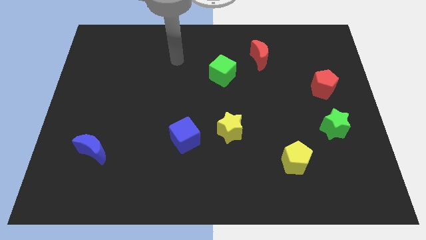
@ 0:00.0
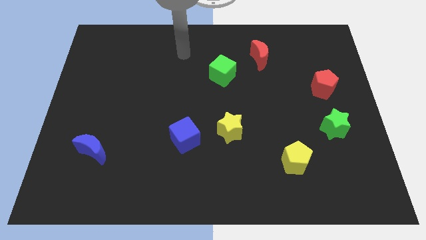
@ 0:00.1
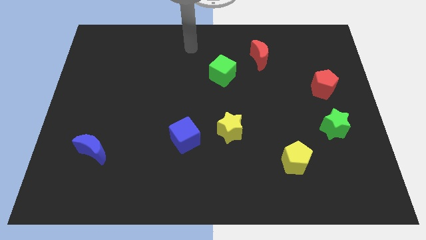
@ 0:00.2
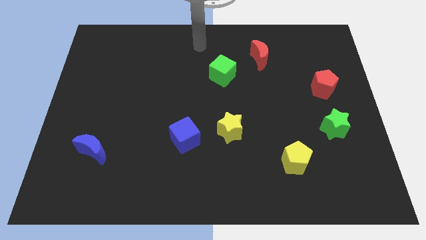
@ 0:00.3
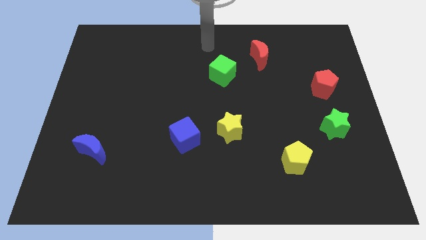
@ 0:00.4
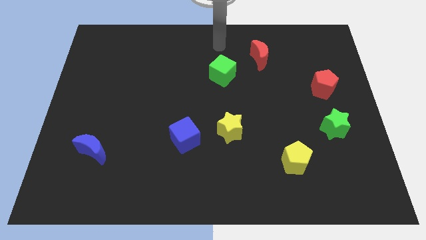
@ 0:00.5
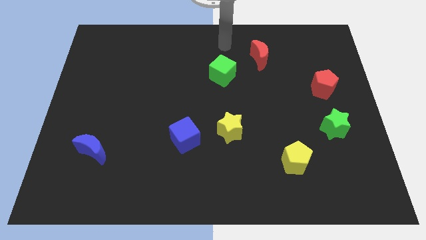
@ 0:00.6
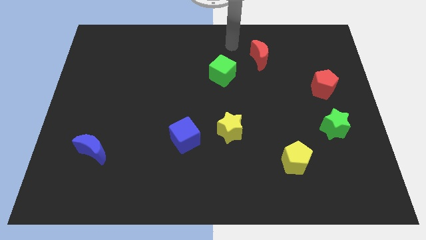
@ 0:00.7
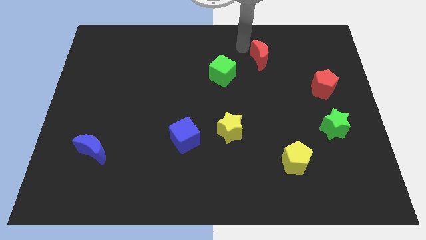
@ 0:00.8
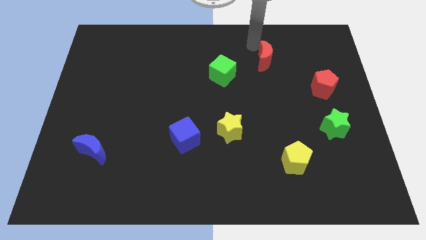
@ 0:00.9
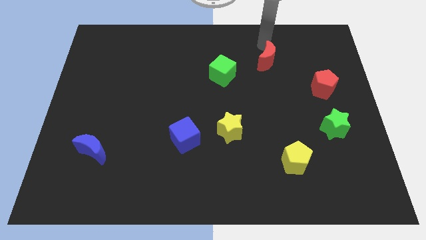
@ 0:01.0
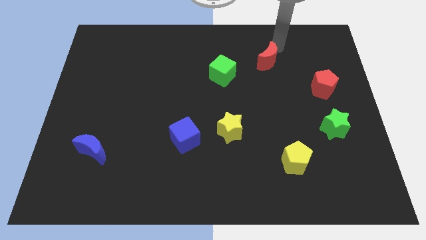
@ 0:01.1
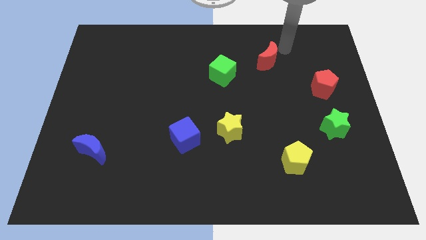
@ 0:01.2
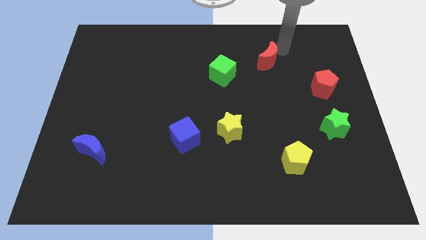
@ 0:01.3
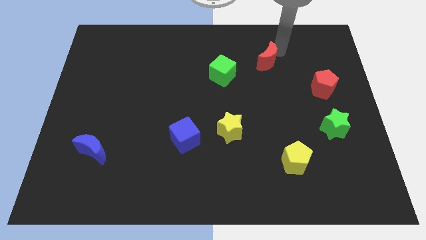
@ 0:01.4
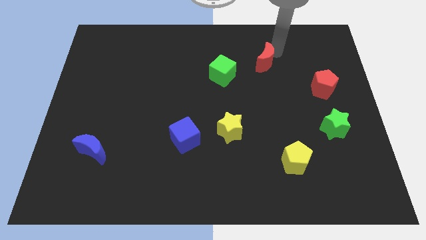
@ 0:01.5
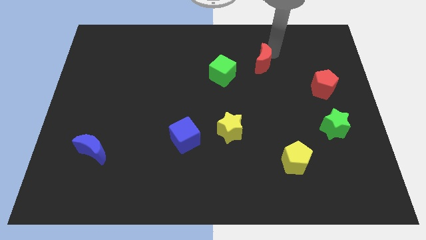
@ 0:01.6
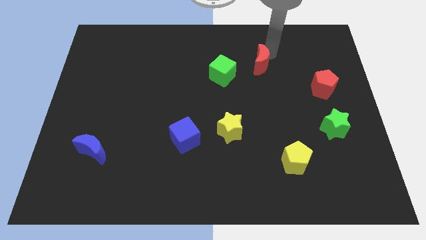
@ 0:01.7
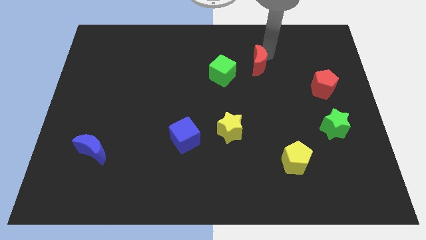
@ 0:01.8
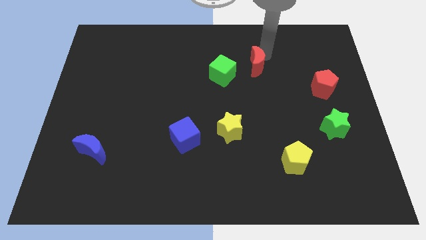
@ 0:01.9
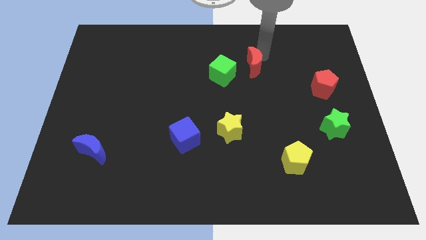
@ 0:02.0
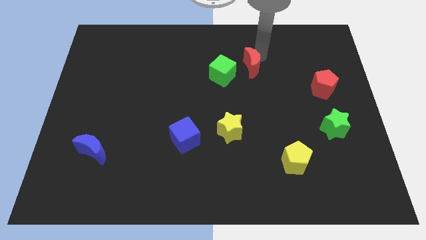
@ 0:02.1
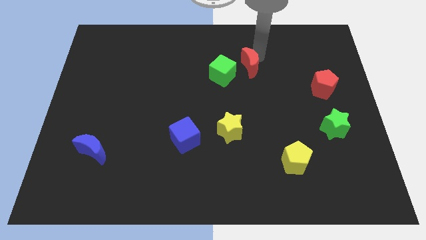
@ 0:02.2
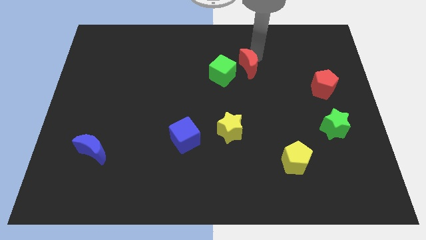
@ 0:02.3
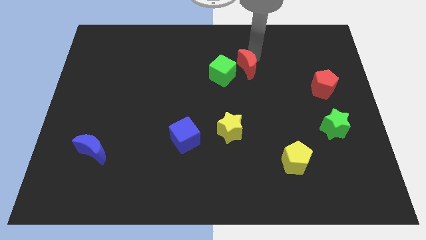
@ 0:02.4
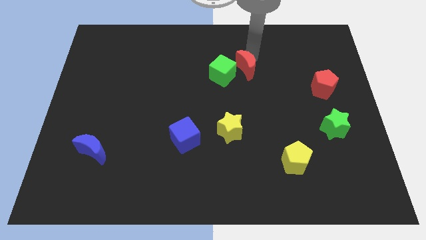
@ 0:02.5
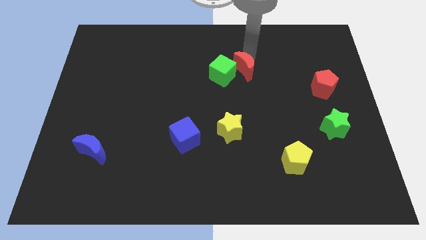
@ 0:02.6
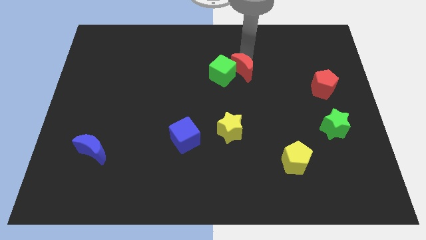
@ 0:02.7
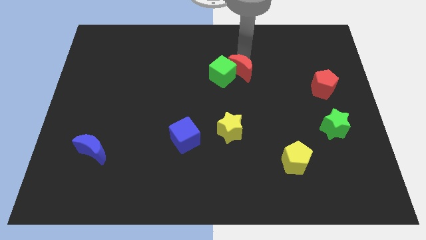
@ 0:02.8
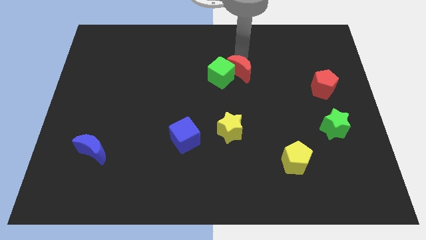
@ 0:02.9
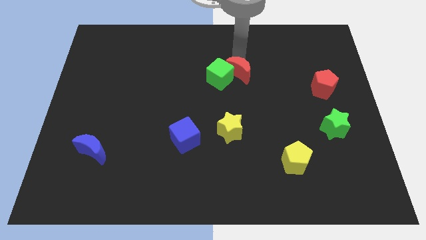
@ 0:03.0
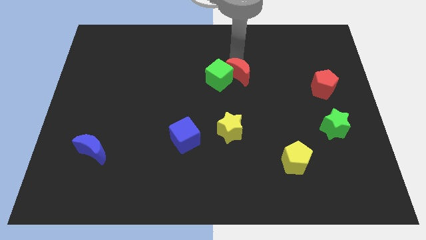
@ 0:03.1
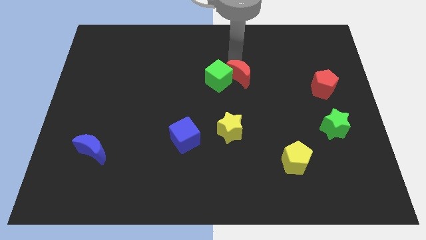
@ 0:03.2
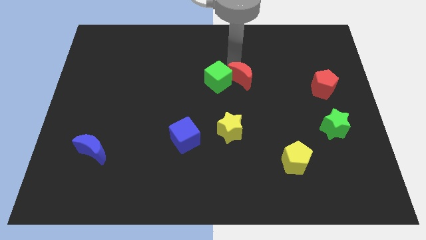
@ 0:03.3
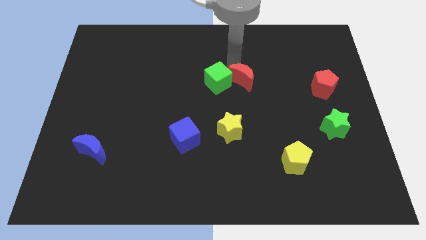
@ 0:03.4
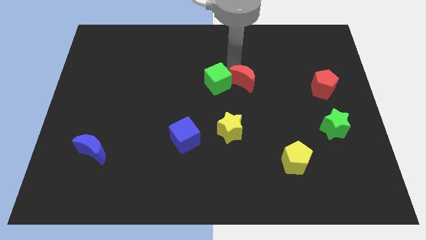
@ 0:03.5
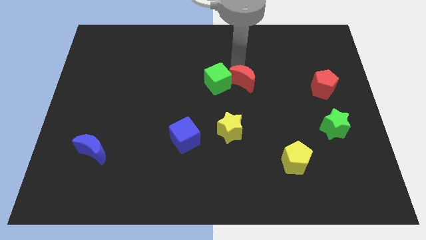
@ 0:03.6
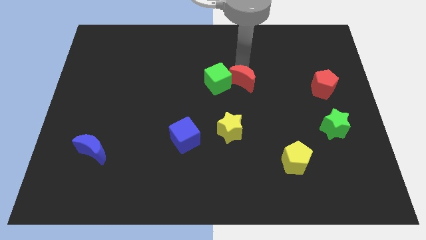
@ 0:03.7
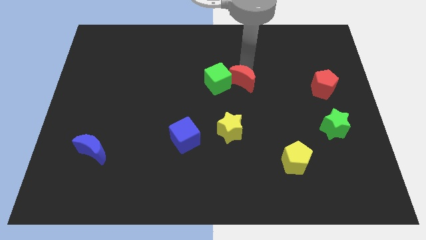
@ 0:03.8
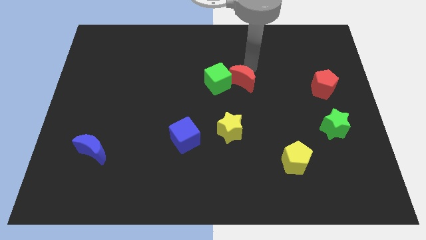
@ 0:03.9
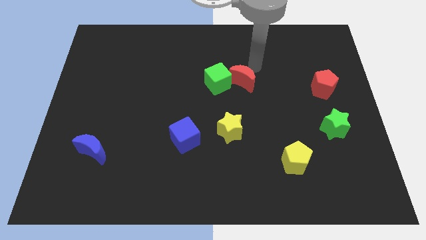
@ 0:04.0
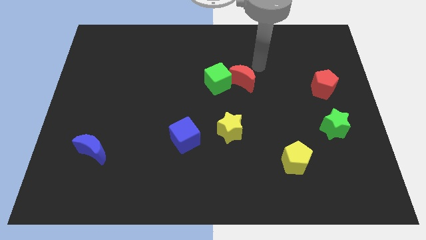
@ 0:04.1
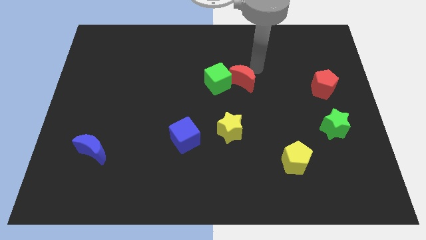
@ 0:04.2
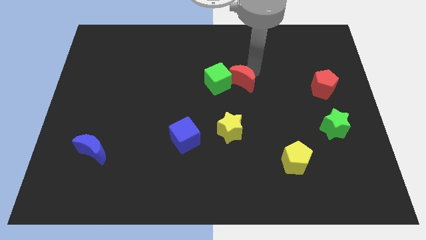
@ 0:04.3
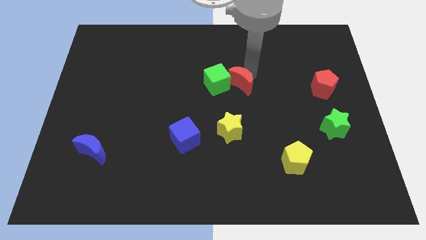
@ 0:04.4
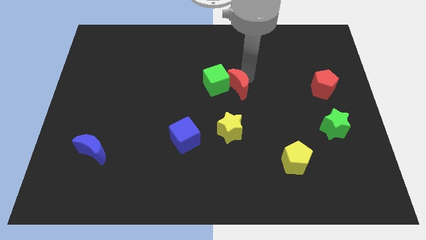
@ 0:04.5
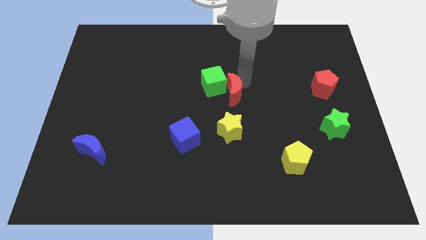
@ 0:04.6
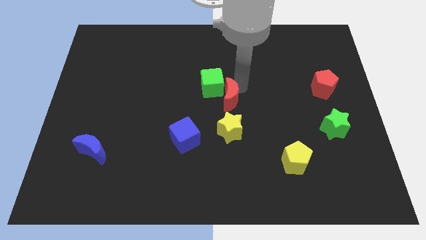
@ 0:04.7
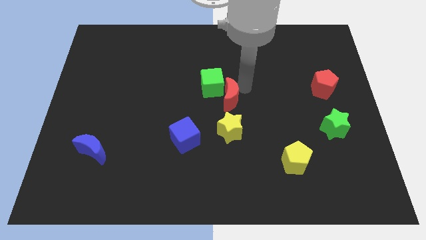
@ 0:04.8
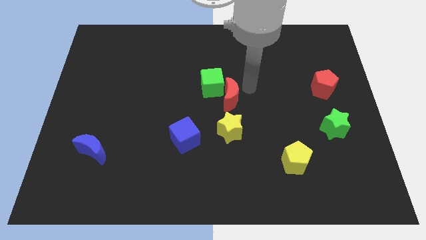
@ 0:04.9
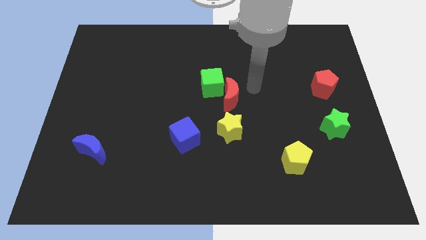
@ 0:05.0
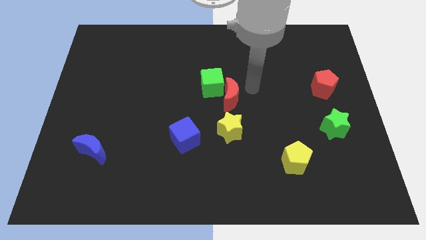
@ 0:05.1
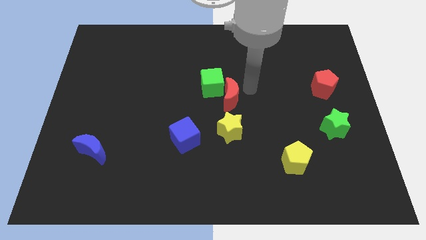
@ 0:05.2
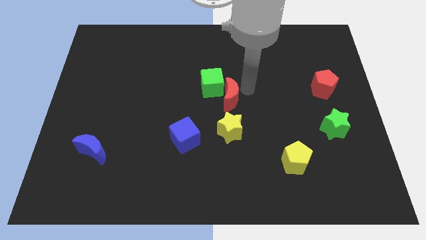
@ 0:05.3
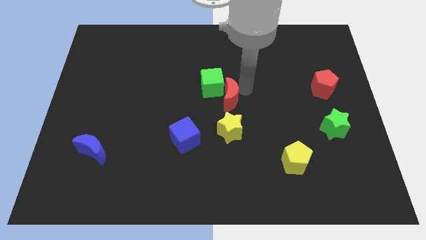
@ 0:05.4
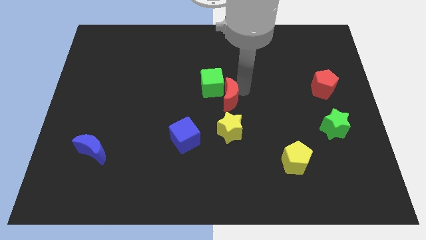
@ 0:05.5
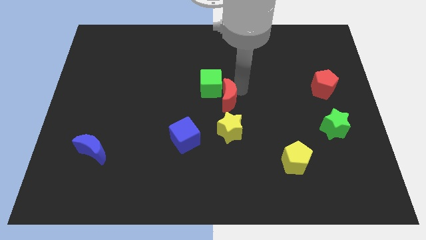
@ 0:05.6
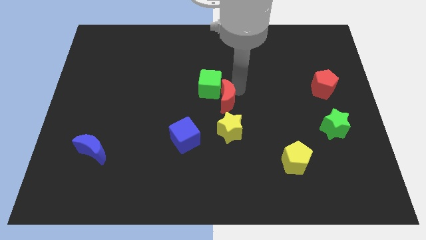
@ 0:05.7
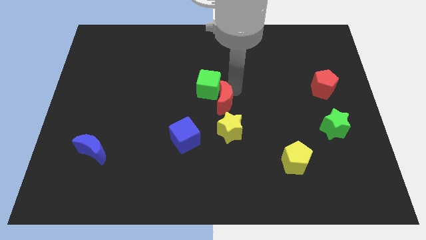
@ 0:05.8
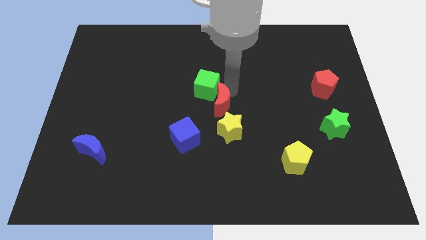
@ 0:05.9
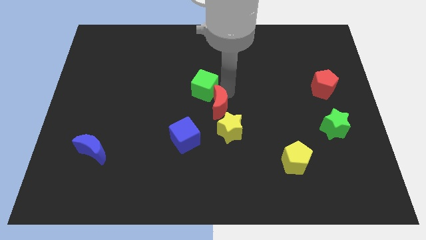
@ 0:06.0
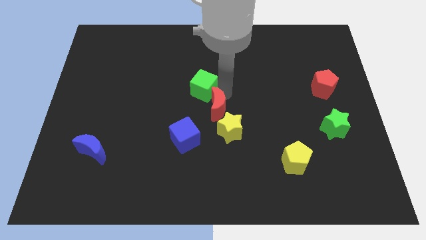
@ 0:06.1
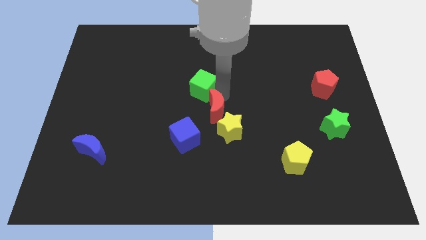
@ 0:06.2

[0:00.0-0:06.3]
slide the red moon down and to the left

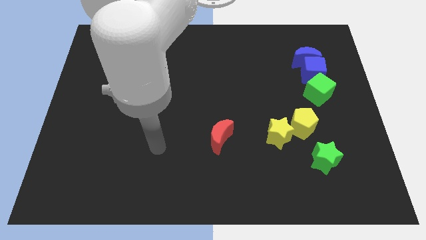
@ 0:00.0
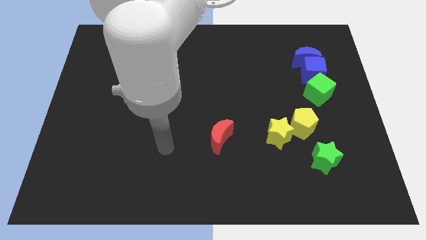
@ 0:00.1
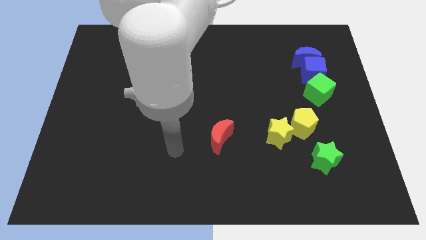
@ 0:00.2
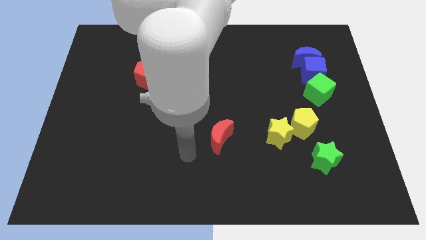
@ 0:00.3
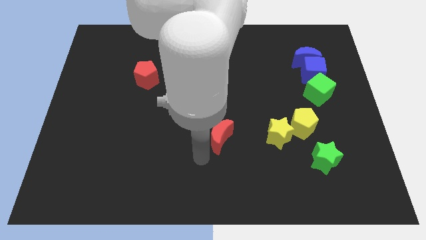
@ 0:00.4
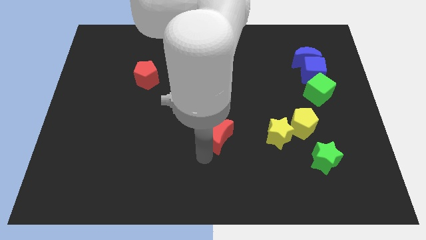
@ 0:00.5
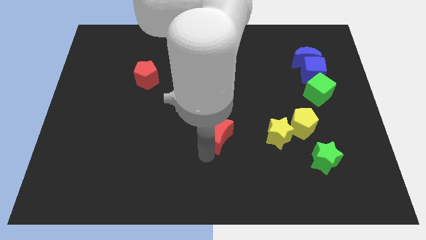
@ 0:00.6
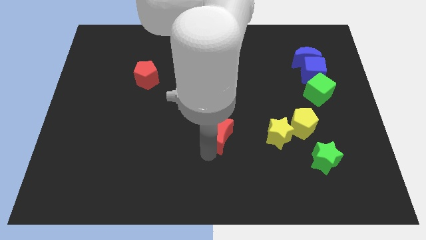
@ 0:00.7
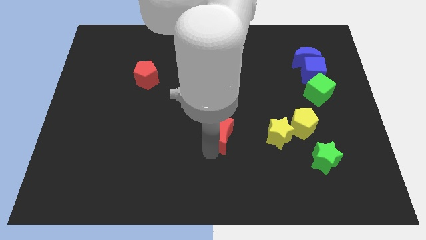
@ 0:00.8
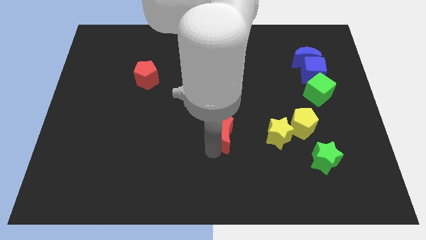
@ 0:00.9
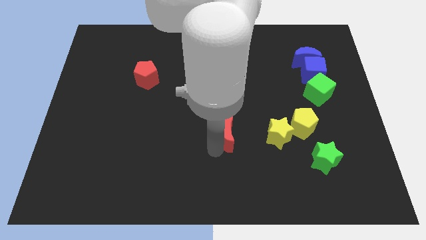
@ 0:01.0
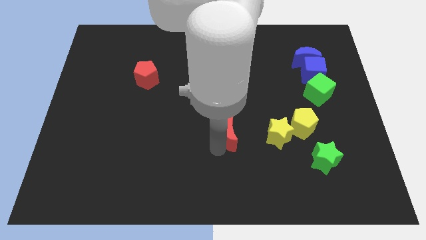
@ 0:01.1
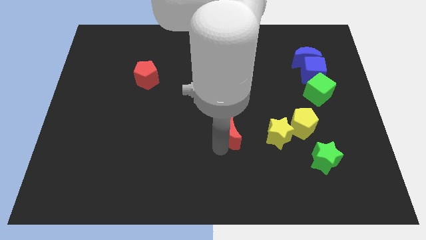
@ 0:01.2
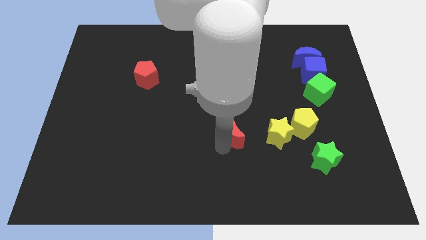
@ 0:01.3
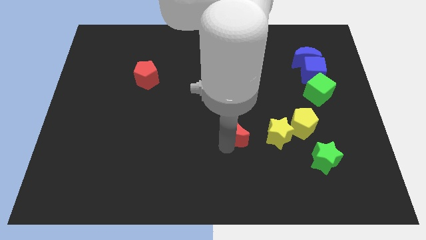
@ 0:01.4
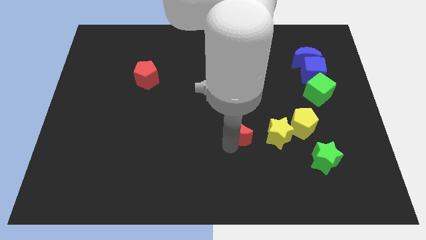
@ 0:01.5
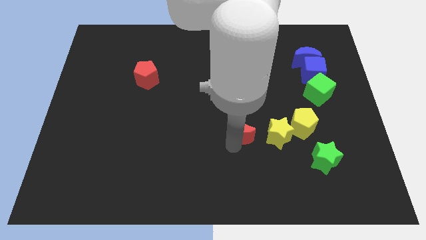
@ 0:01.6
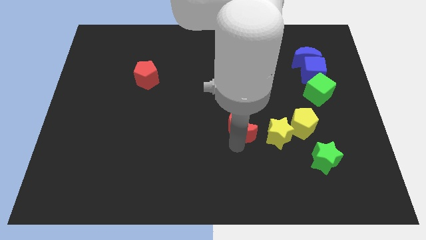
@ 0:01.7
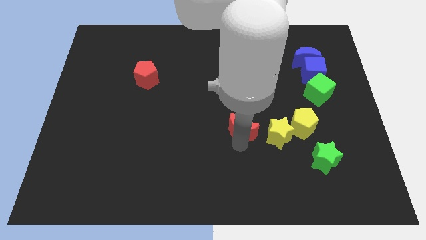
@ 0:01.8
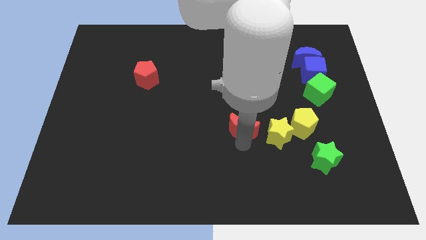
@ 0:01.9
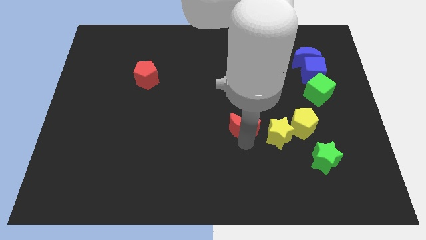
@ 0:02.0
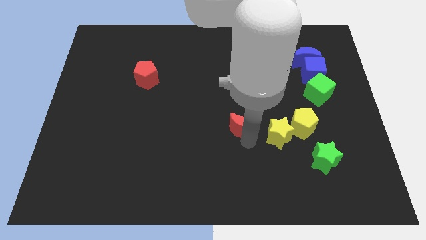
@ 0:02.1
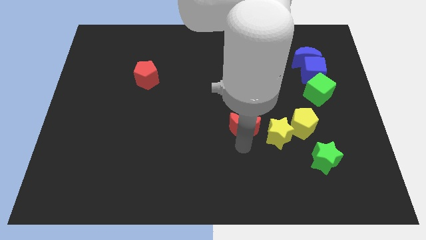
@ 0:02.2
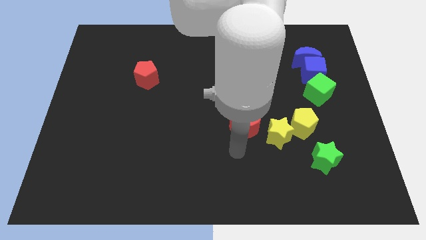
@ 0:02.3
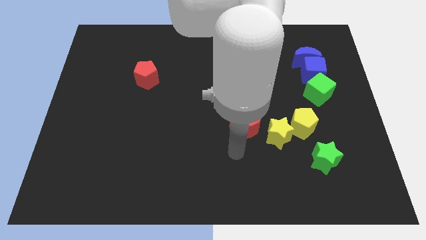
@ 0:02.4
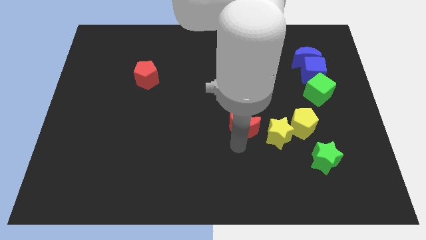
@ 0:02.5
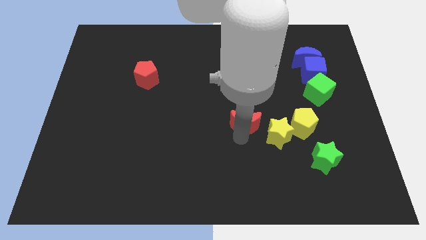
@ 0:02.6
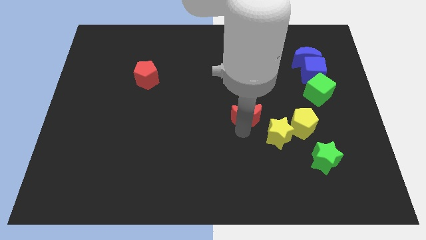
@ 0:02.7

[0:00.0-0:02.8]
push the red moon up and then right slightly
